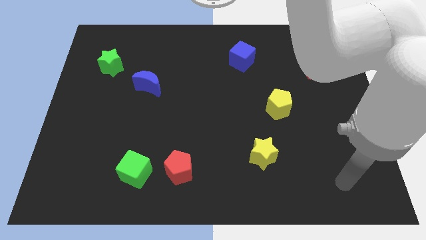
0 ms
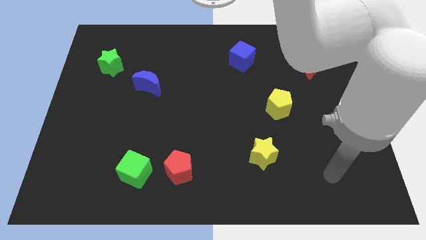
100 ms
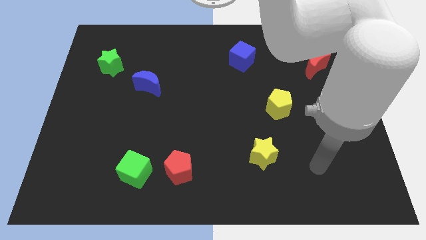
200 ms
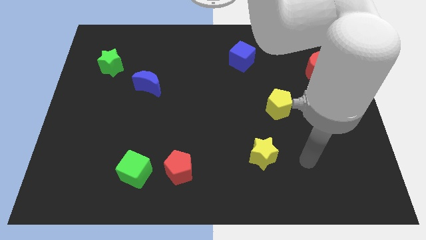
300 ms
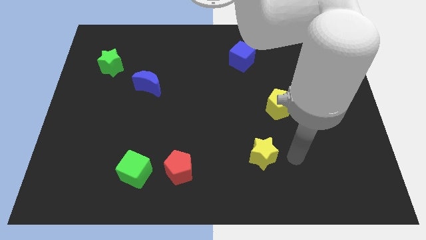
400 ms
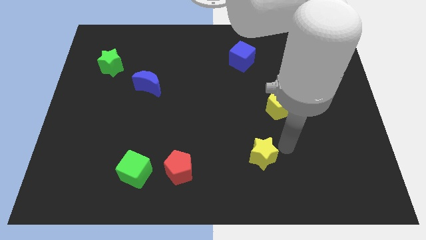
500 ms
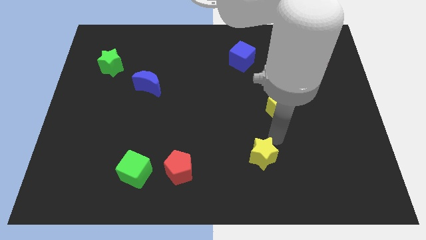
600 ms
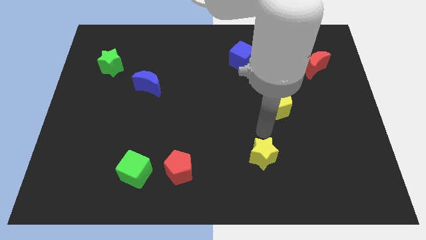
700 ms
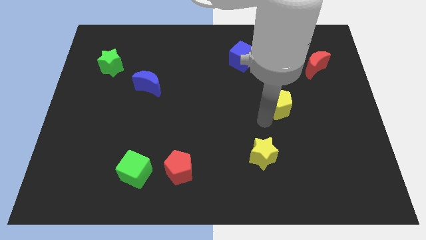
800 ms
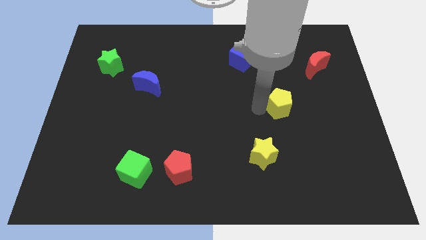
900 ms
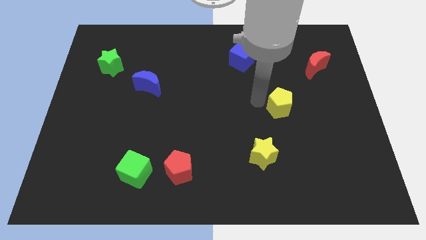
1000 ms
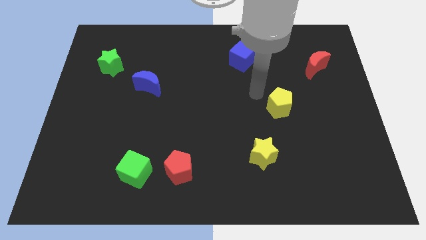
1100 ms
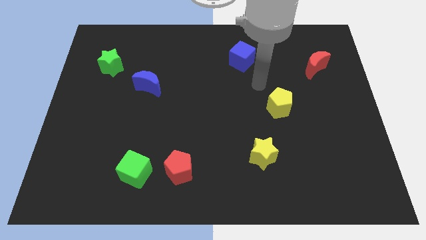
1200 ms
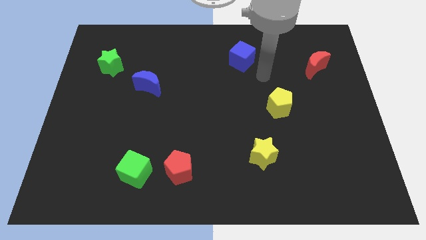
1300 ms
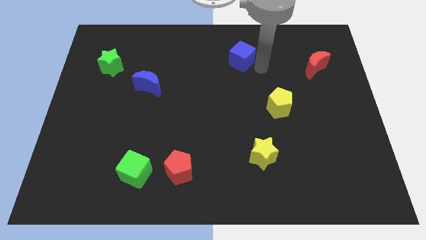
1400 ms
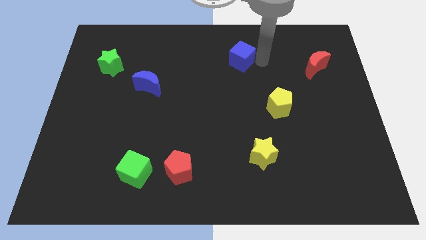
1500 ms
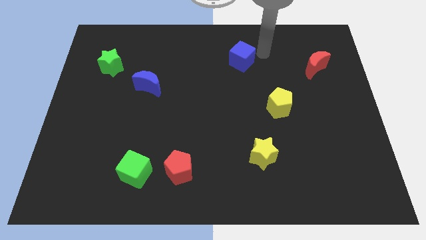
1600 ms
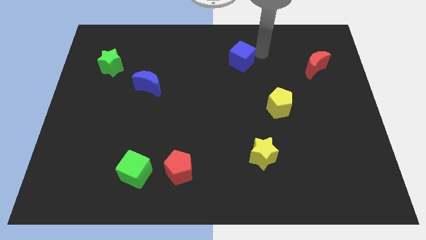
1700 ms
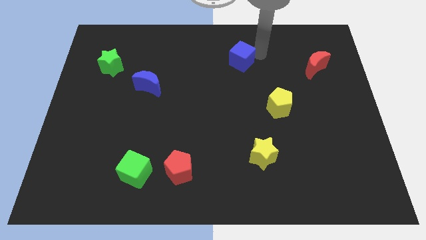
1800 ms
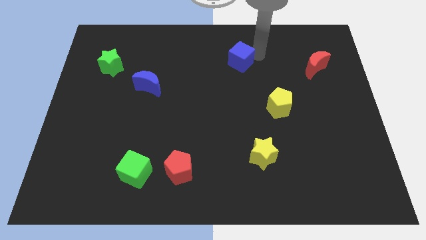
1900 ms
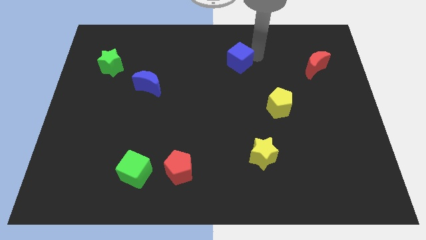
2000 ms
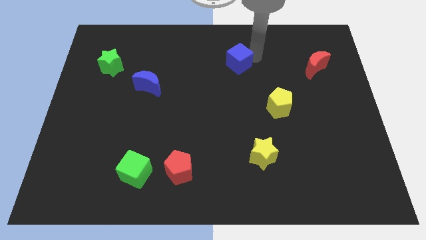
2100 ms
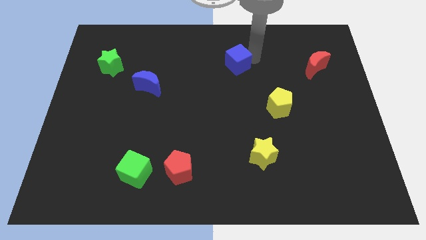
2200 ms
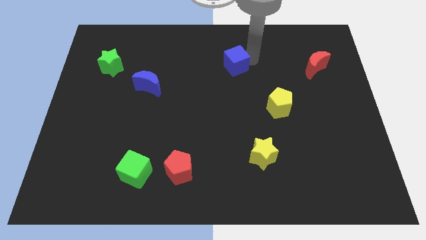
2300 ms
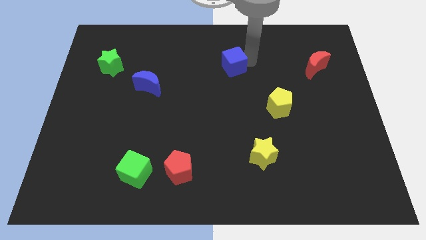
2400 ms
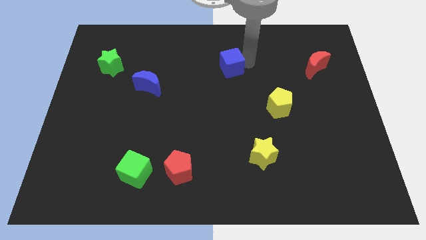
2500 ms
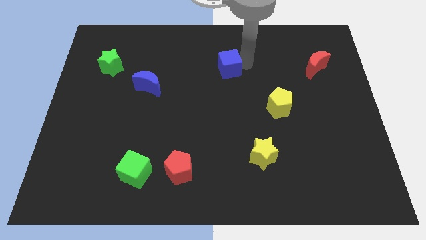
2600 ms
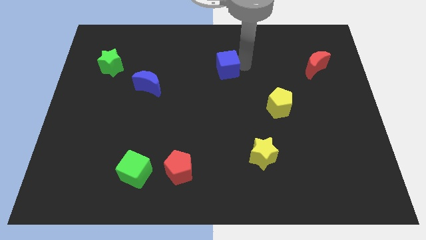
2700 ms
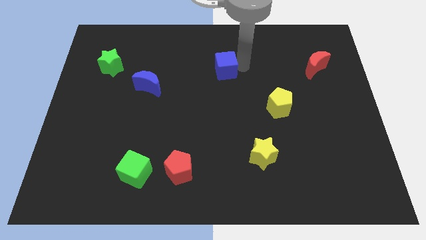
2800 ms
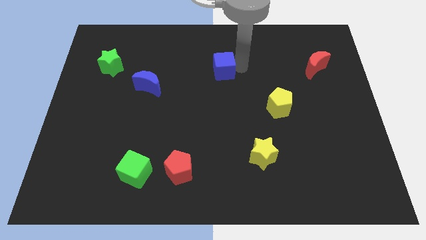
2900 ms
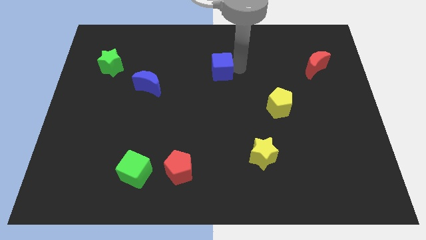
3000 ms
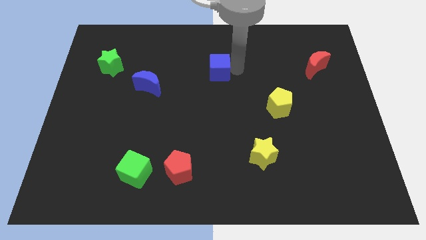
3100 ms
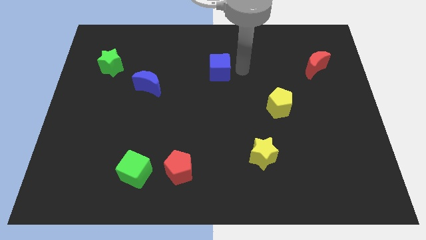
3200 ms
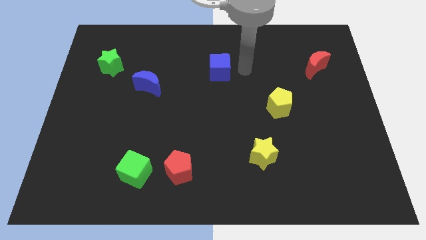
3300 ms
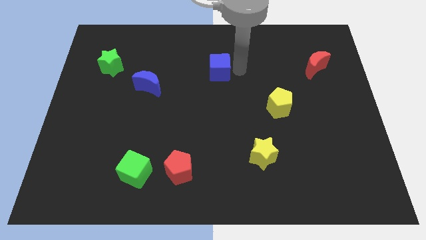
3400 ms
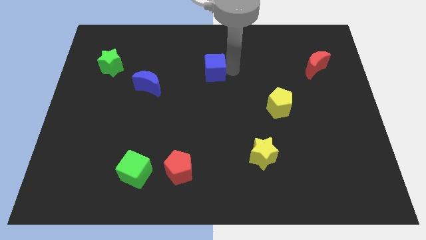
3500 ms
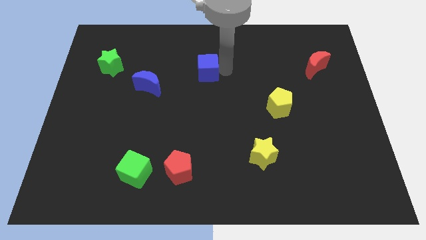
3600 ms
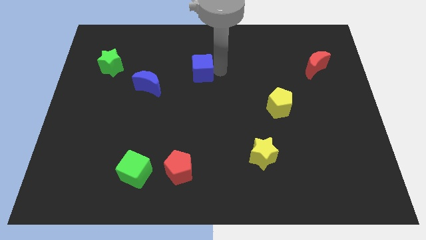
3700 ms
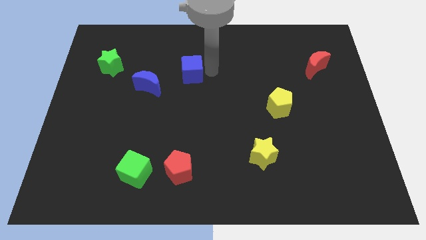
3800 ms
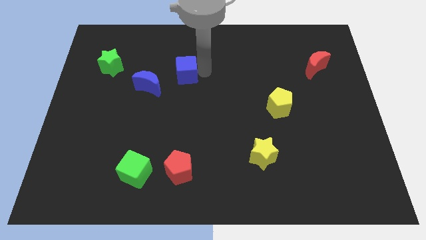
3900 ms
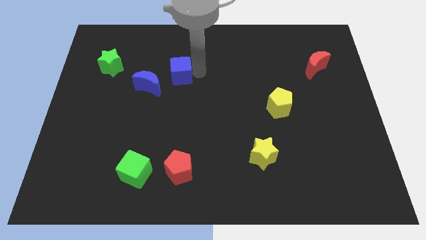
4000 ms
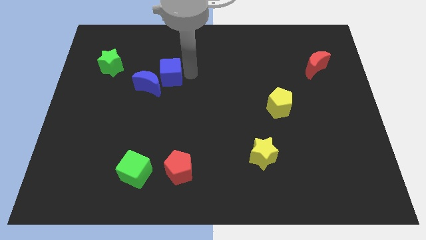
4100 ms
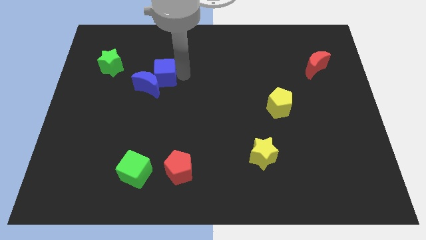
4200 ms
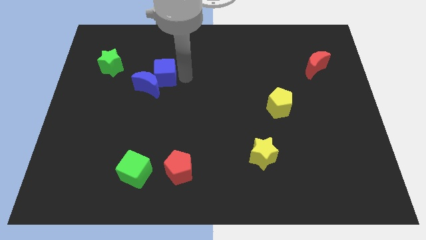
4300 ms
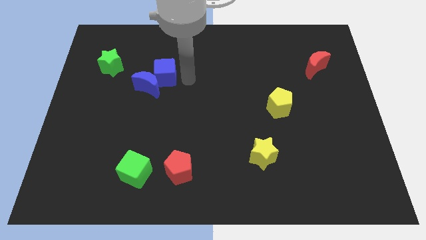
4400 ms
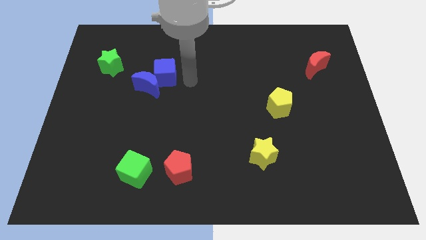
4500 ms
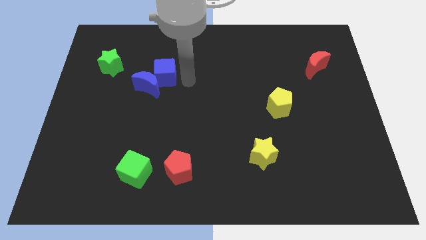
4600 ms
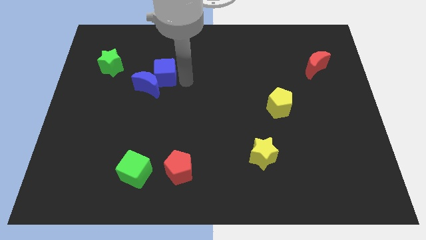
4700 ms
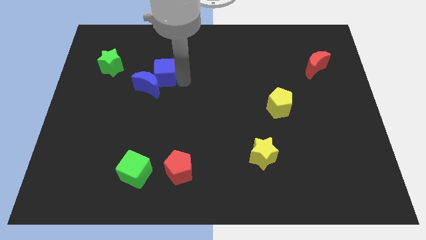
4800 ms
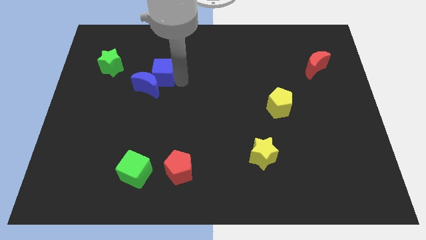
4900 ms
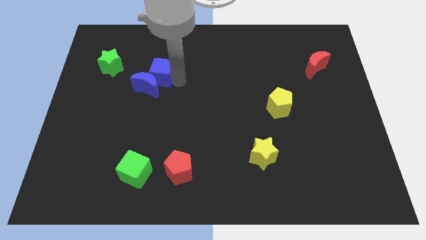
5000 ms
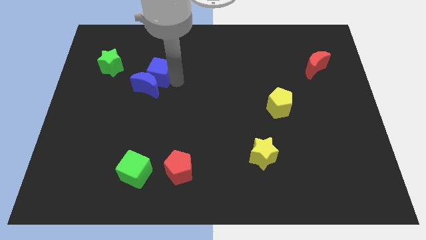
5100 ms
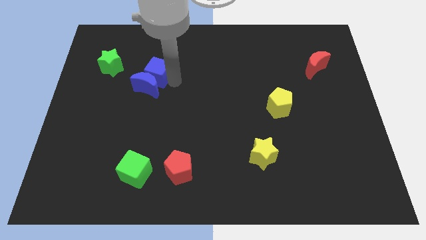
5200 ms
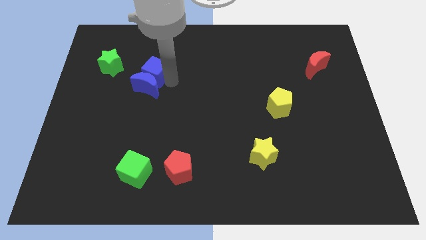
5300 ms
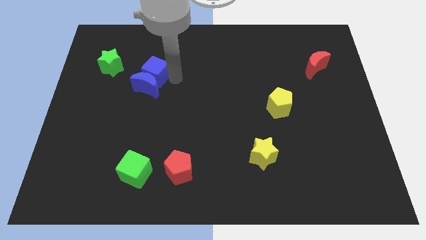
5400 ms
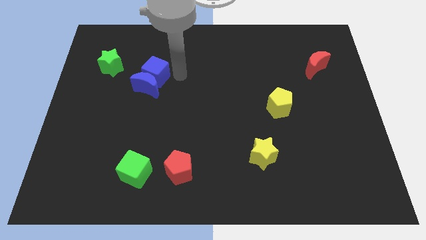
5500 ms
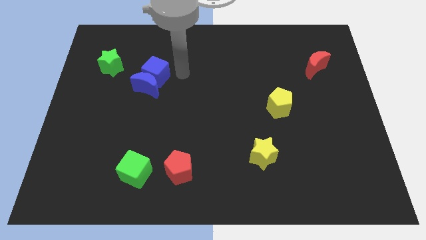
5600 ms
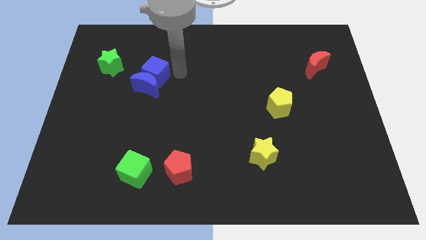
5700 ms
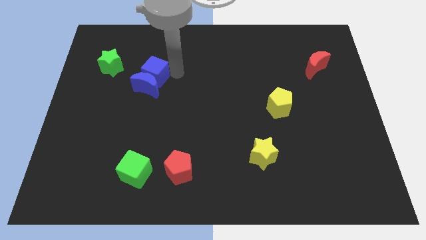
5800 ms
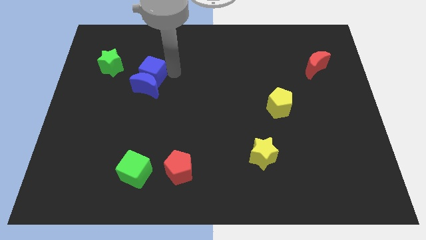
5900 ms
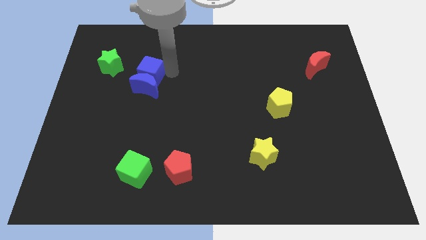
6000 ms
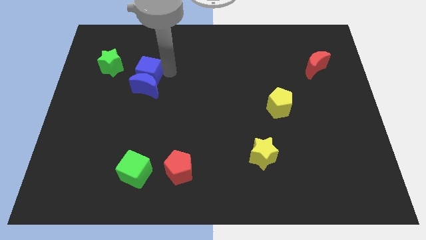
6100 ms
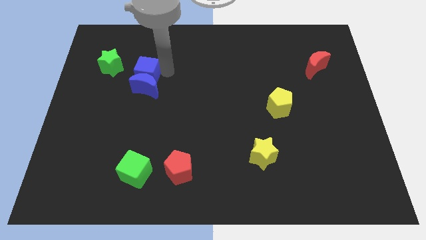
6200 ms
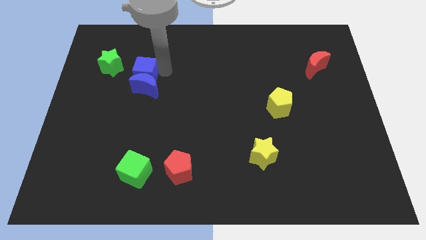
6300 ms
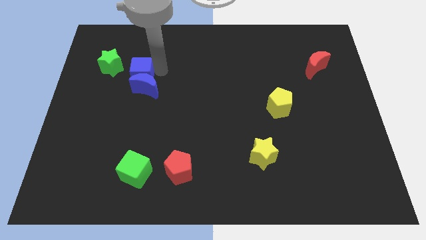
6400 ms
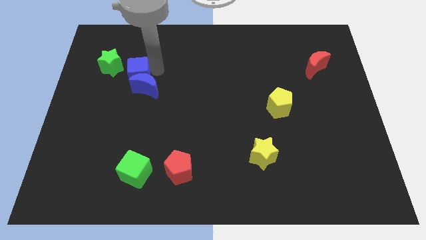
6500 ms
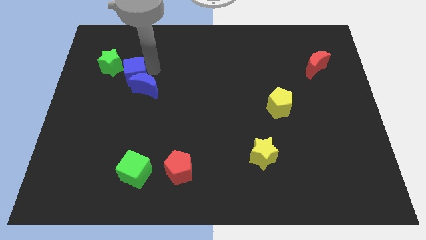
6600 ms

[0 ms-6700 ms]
push the blue cube to the left side of the blue moon
